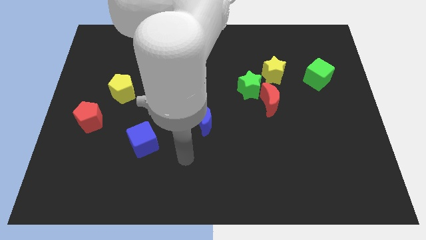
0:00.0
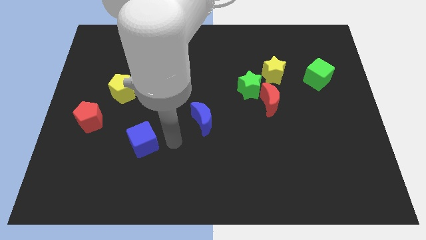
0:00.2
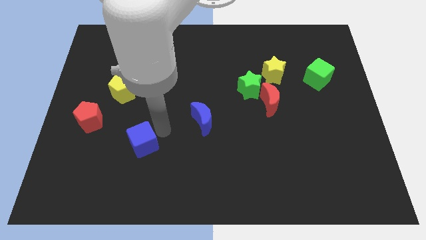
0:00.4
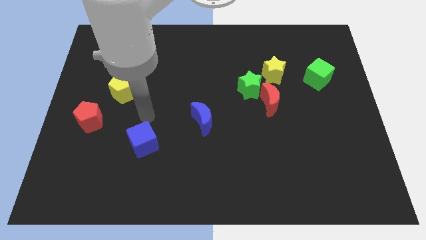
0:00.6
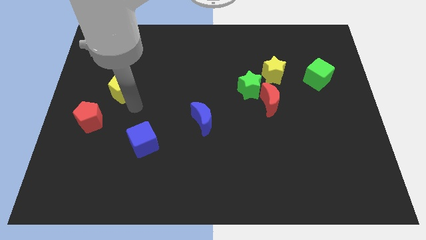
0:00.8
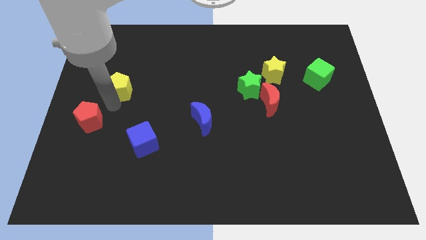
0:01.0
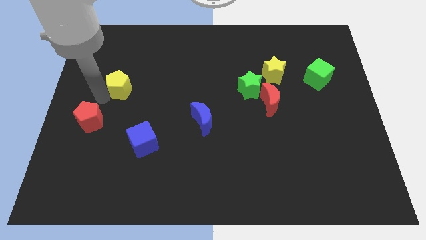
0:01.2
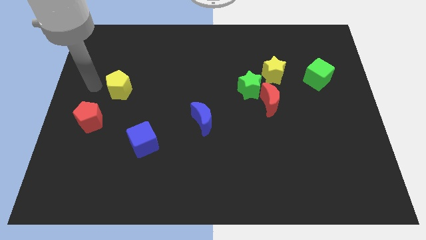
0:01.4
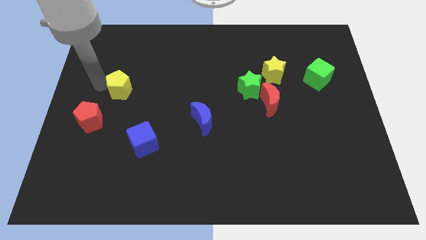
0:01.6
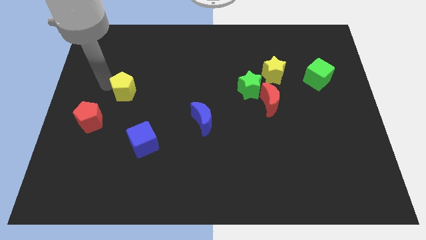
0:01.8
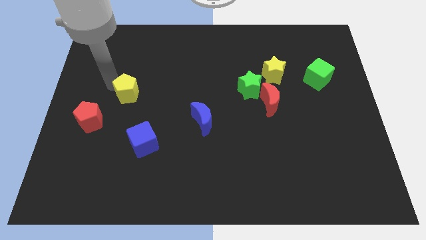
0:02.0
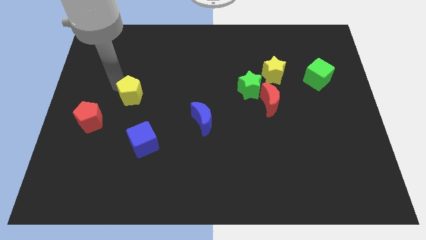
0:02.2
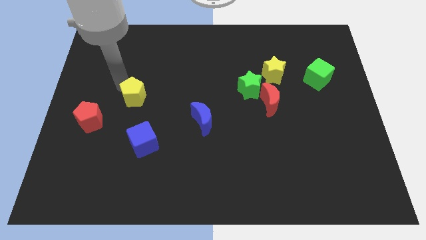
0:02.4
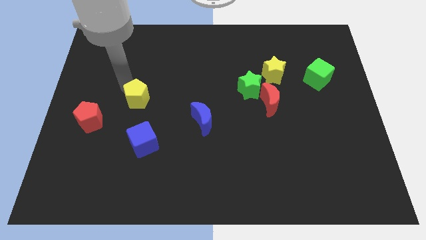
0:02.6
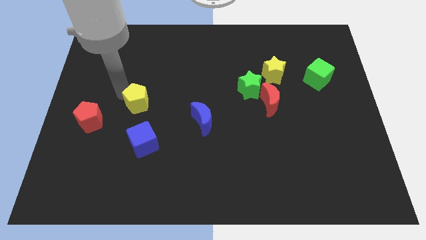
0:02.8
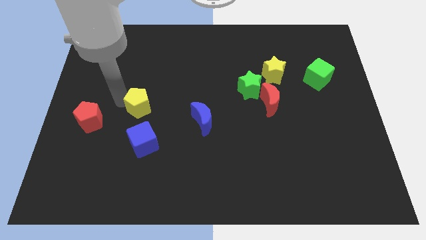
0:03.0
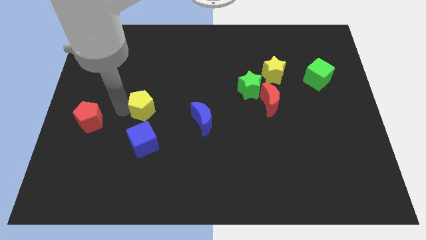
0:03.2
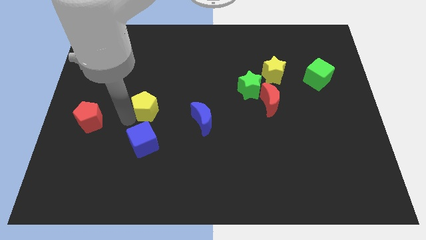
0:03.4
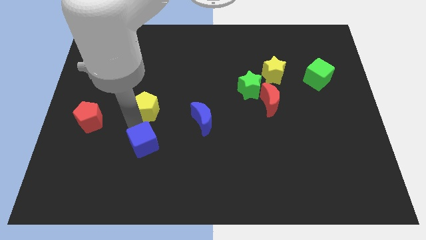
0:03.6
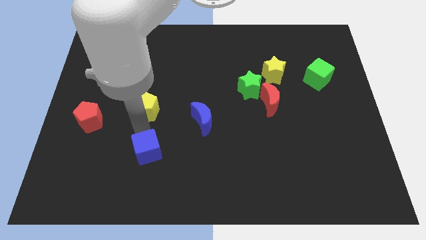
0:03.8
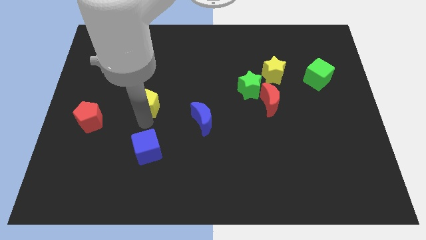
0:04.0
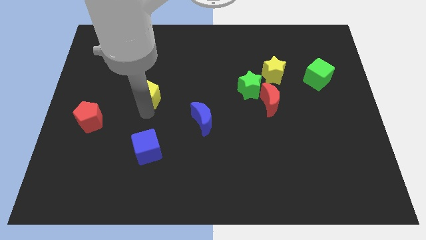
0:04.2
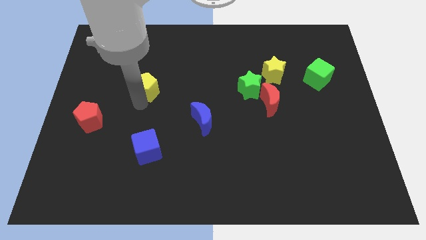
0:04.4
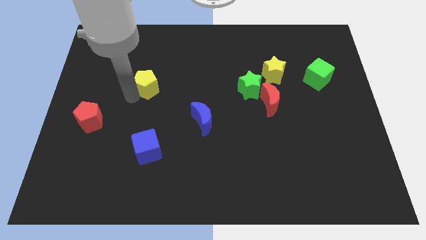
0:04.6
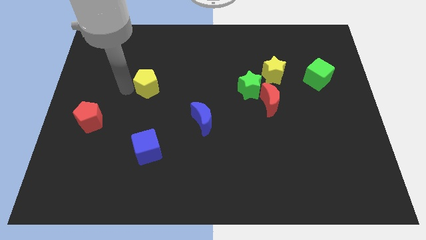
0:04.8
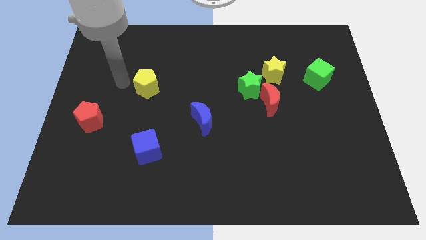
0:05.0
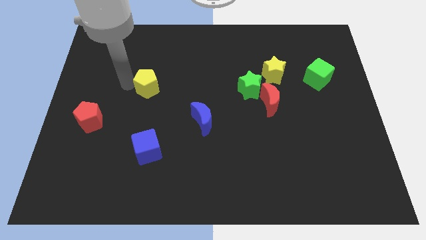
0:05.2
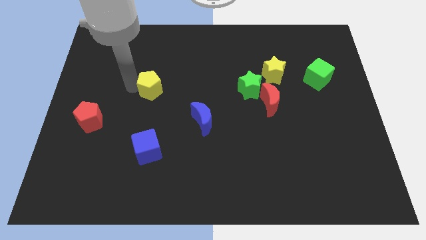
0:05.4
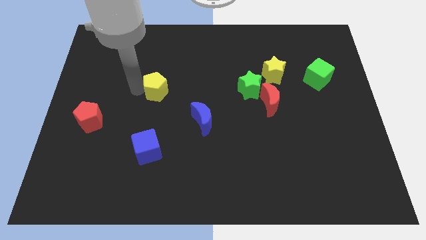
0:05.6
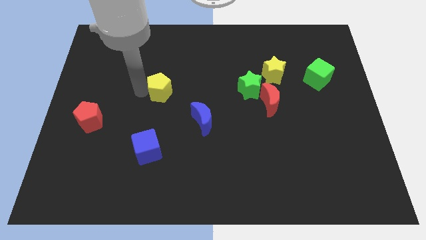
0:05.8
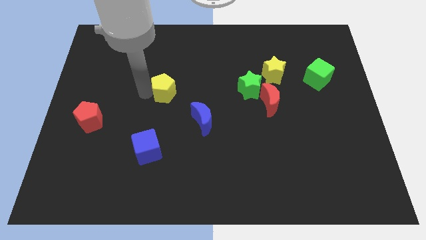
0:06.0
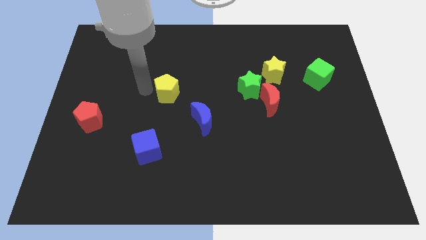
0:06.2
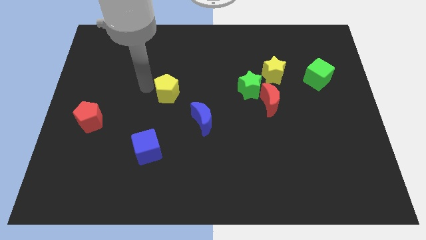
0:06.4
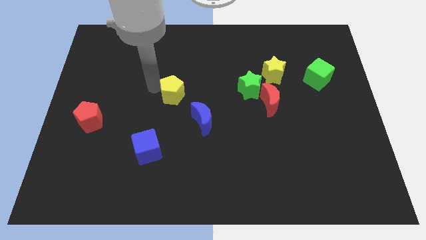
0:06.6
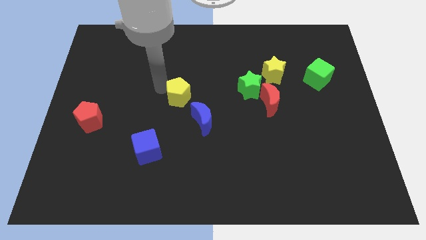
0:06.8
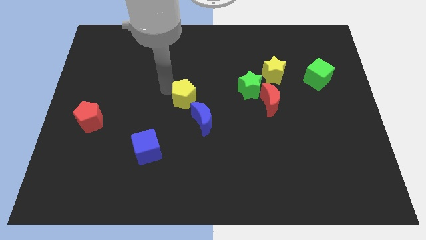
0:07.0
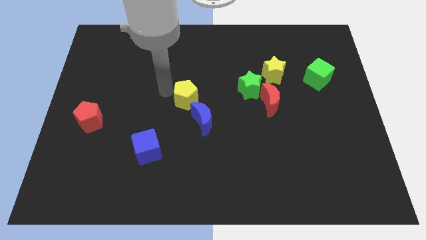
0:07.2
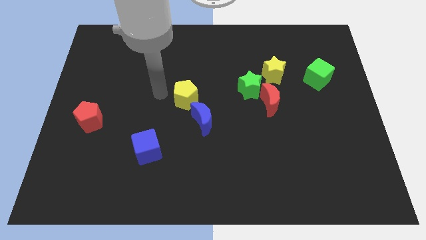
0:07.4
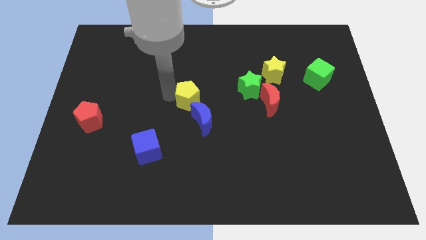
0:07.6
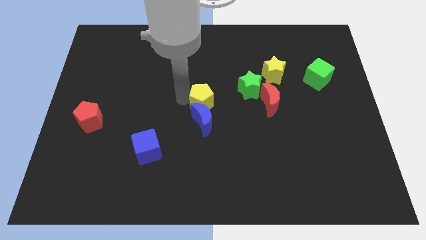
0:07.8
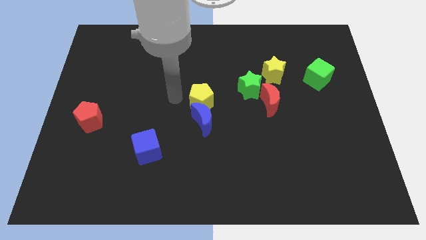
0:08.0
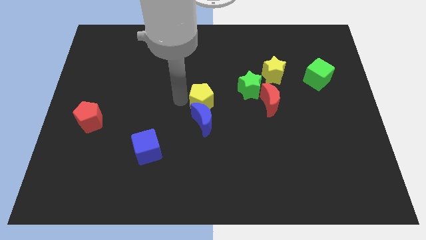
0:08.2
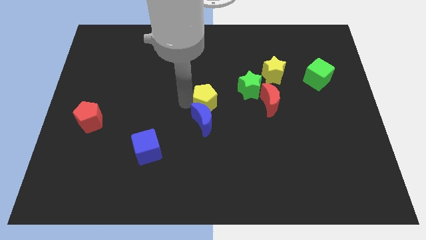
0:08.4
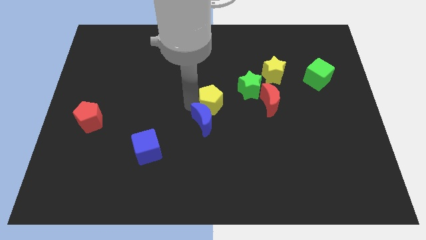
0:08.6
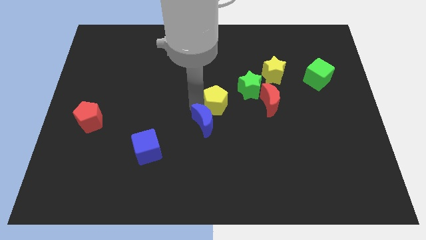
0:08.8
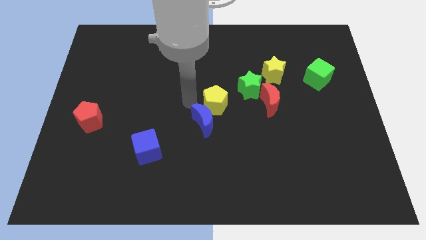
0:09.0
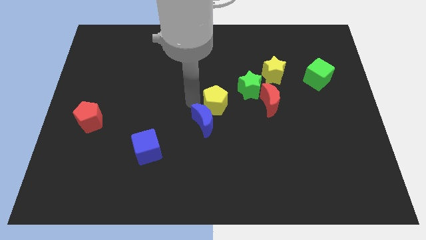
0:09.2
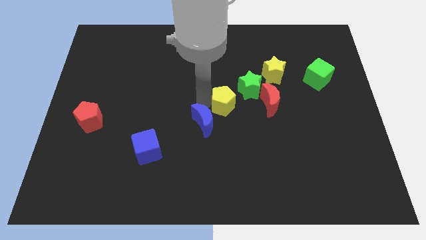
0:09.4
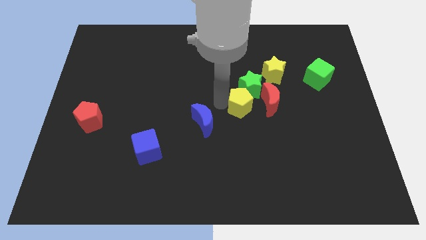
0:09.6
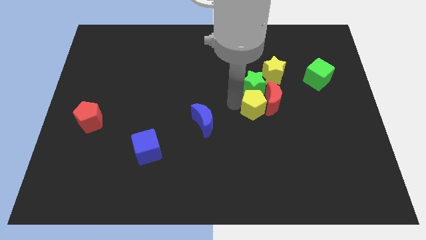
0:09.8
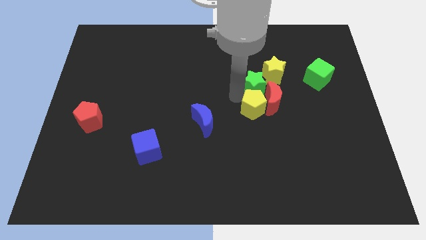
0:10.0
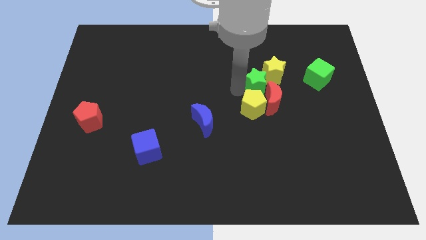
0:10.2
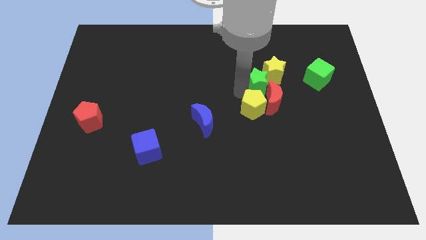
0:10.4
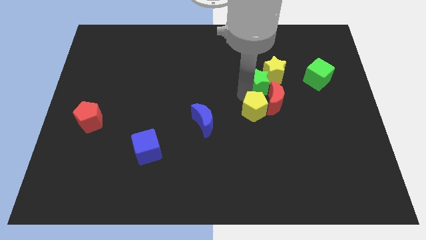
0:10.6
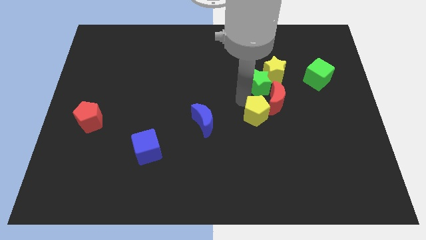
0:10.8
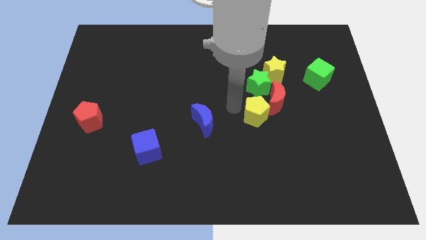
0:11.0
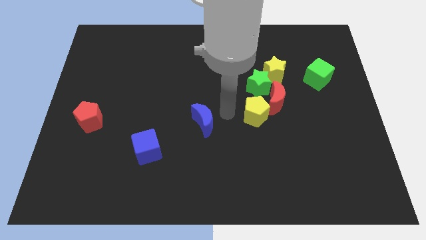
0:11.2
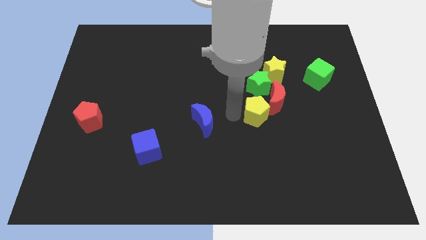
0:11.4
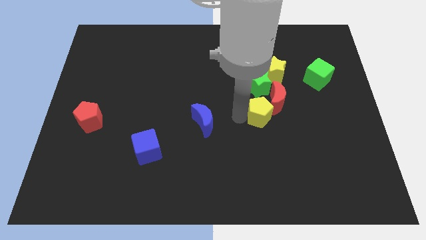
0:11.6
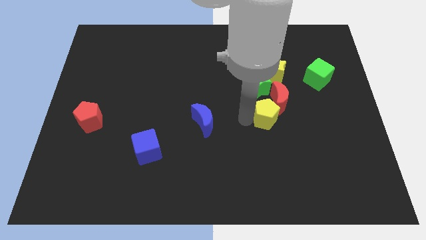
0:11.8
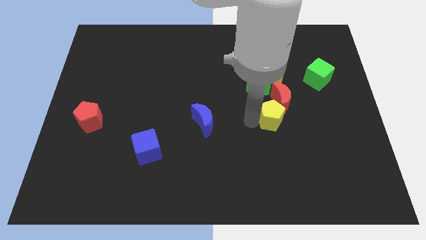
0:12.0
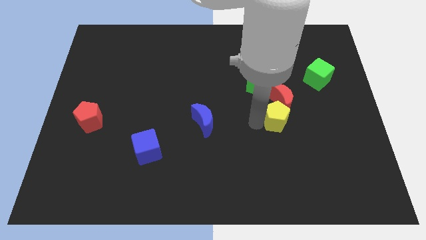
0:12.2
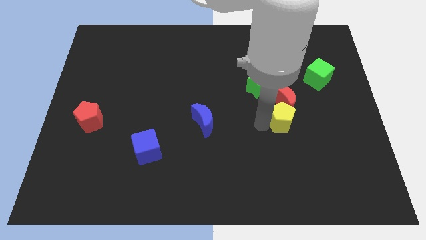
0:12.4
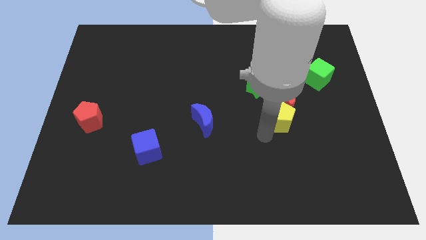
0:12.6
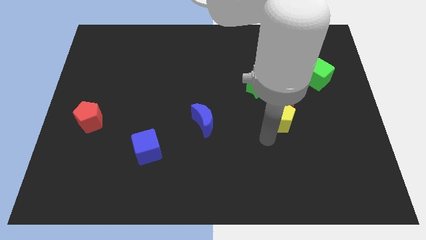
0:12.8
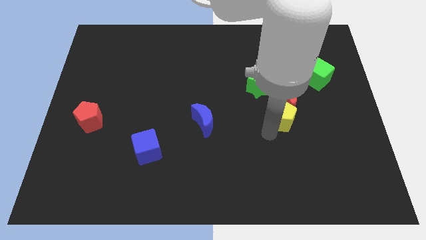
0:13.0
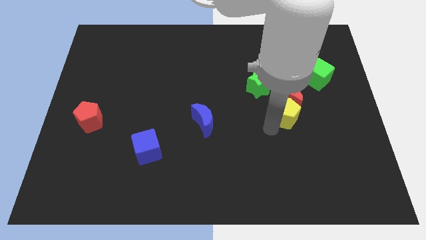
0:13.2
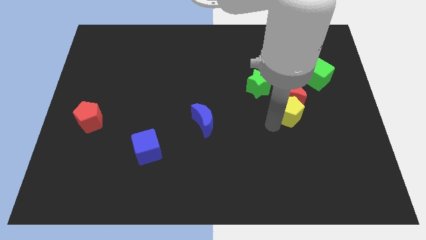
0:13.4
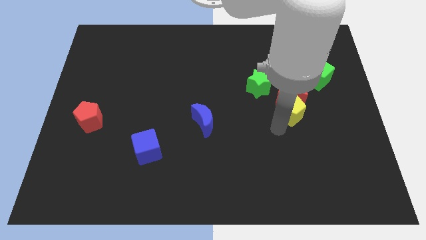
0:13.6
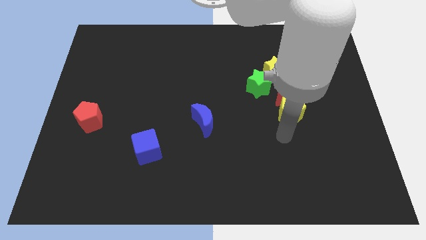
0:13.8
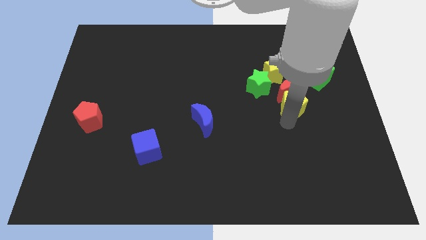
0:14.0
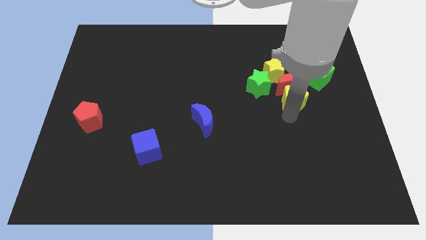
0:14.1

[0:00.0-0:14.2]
put the yellow pentagon to the bottom right of the yellow star

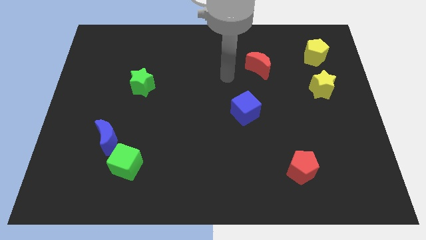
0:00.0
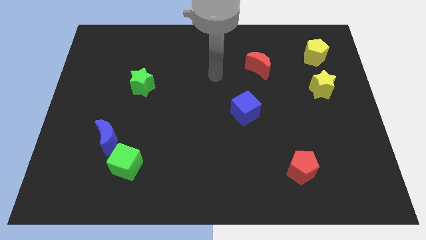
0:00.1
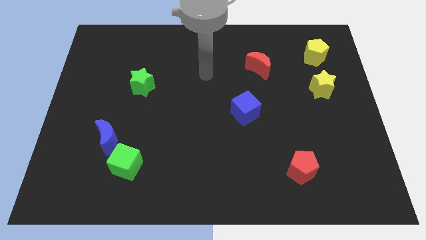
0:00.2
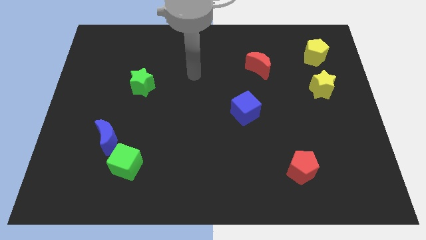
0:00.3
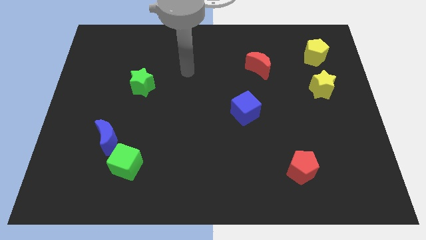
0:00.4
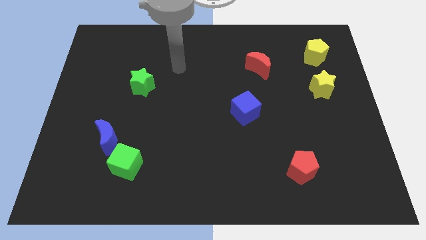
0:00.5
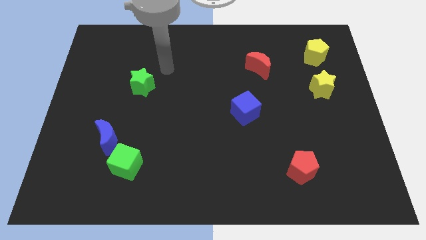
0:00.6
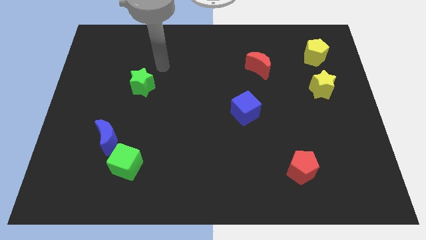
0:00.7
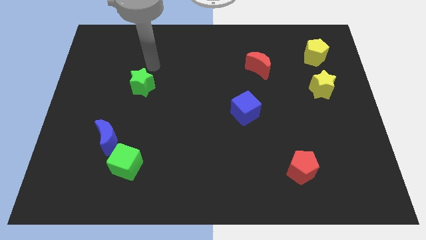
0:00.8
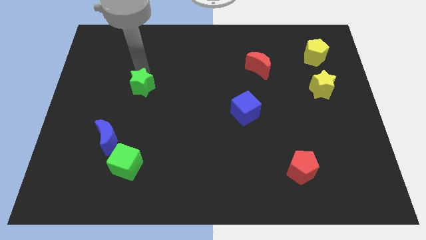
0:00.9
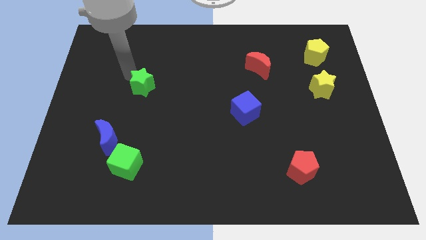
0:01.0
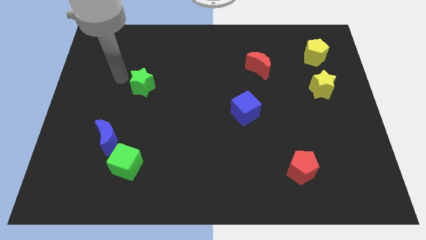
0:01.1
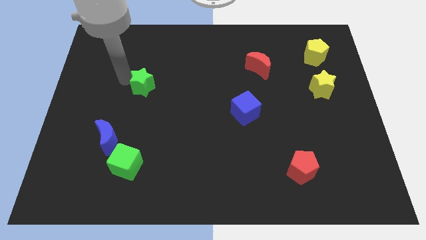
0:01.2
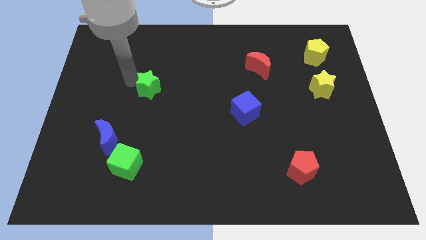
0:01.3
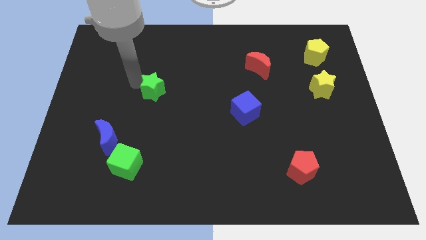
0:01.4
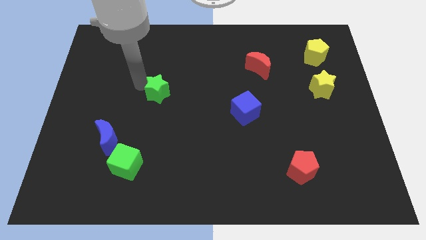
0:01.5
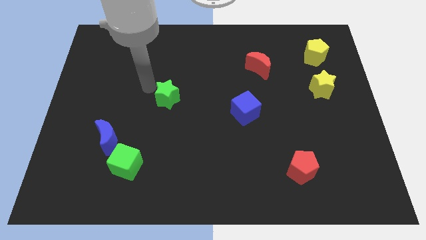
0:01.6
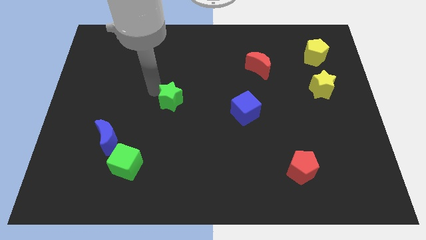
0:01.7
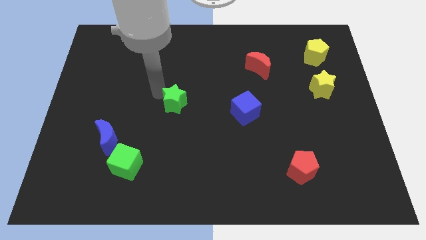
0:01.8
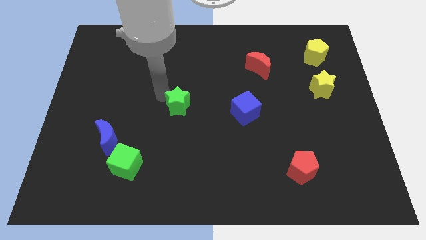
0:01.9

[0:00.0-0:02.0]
put the green star just left of the blue cube
